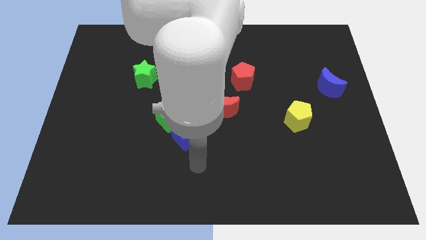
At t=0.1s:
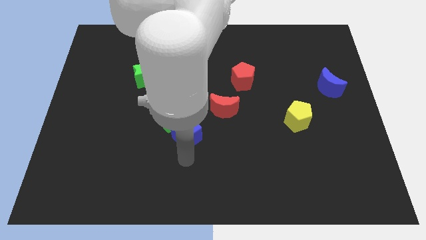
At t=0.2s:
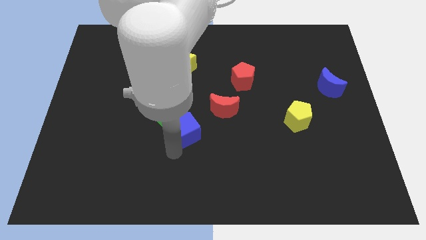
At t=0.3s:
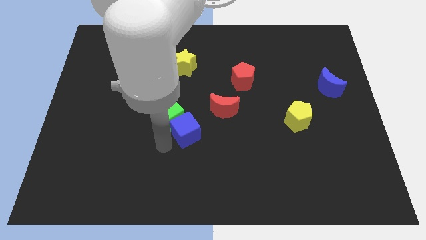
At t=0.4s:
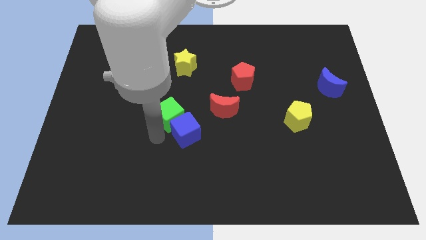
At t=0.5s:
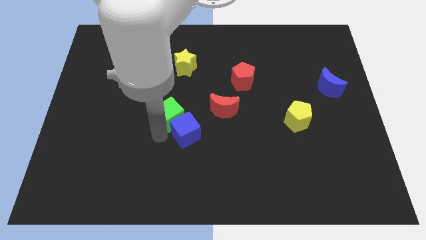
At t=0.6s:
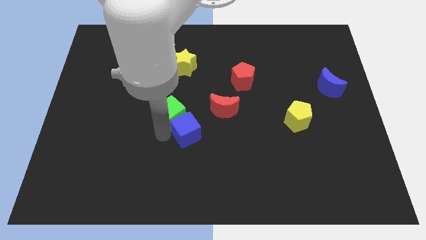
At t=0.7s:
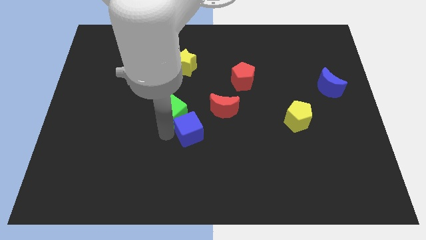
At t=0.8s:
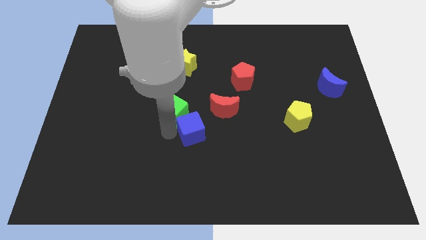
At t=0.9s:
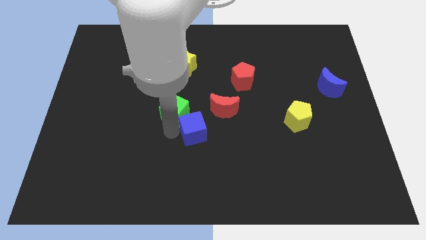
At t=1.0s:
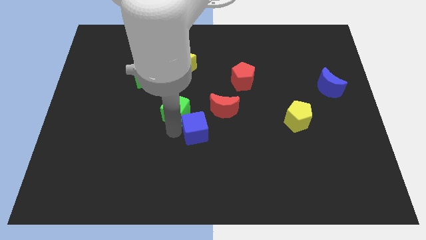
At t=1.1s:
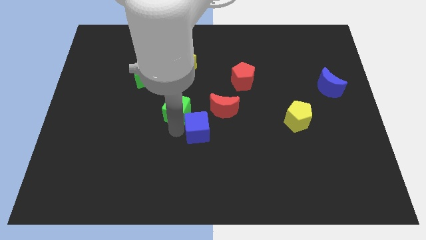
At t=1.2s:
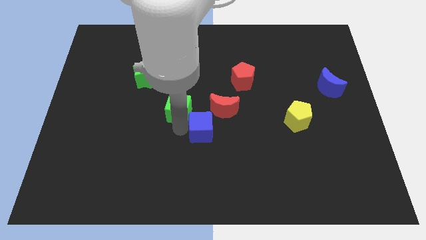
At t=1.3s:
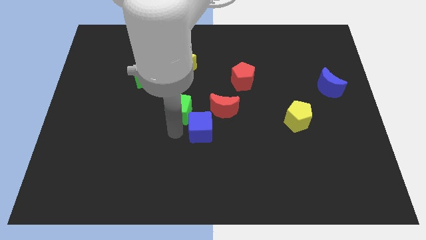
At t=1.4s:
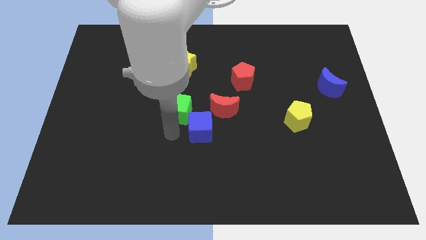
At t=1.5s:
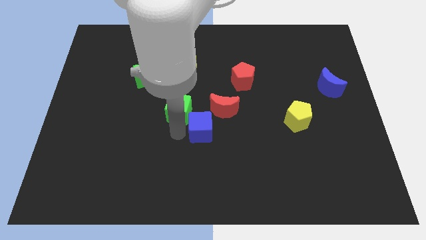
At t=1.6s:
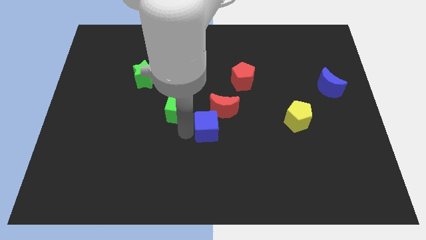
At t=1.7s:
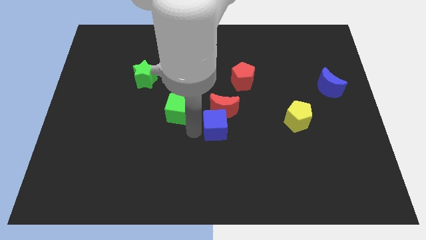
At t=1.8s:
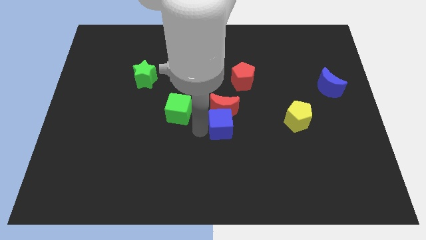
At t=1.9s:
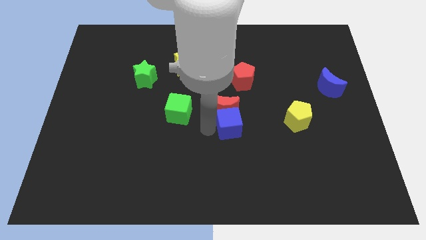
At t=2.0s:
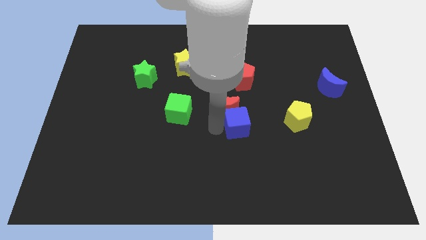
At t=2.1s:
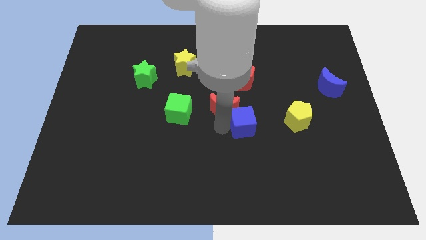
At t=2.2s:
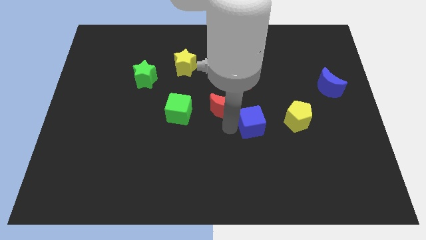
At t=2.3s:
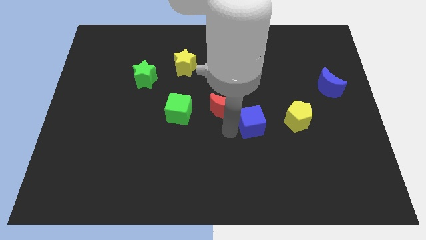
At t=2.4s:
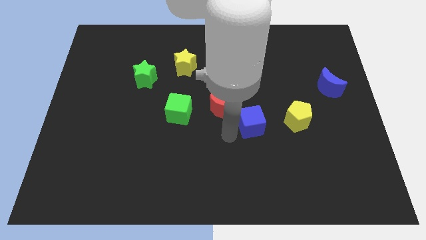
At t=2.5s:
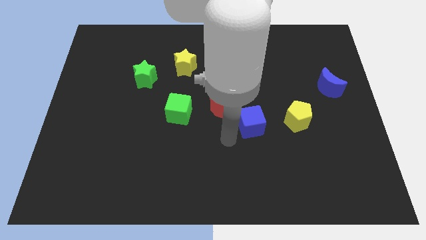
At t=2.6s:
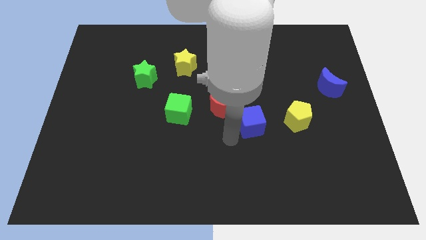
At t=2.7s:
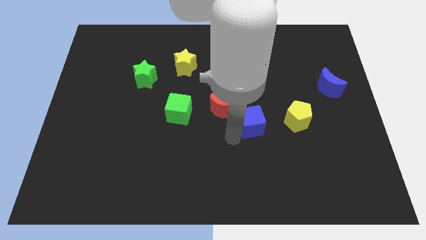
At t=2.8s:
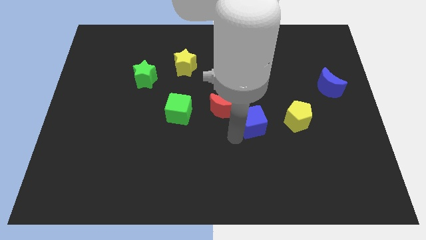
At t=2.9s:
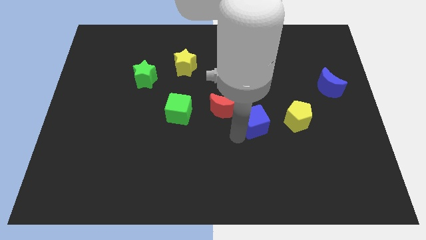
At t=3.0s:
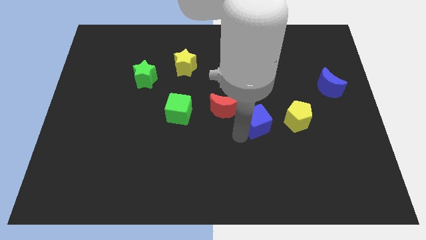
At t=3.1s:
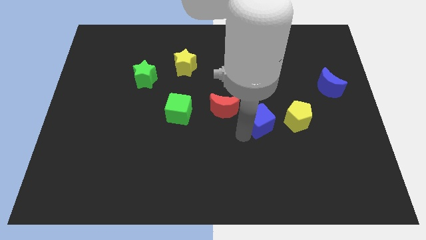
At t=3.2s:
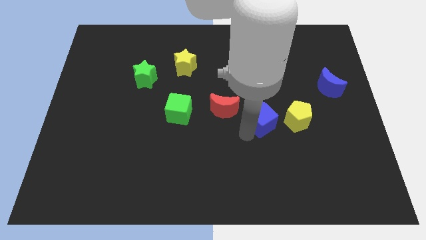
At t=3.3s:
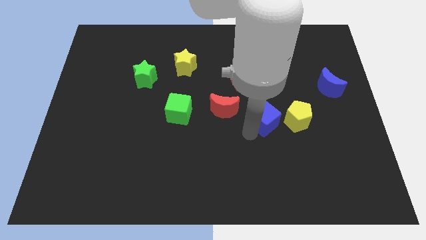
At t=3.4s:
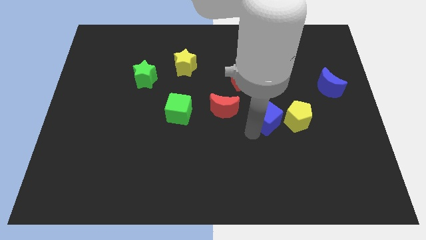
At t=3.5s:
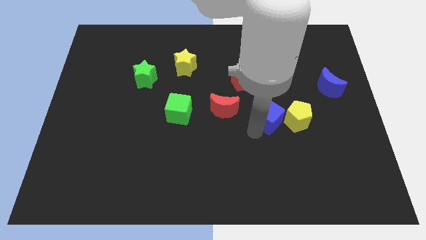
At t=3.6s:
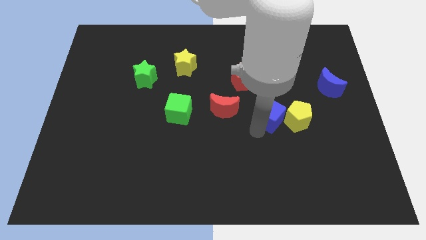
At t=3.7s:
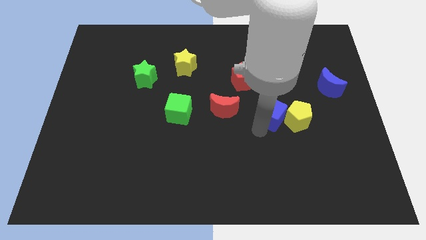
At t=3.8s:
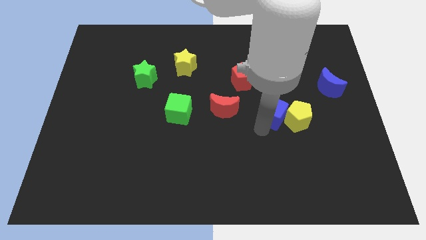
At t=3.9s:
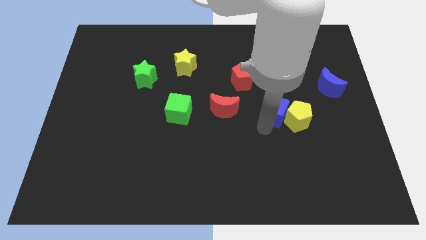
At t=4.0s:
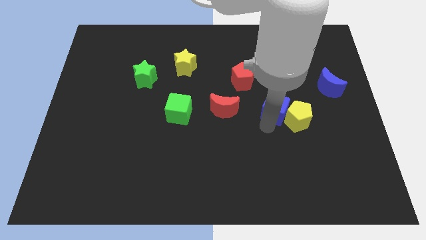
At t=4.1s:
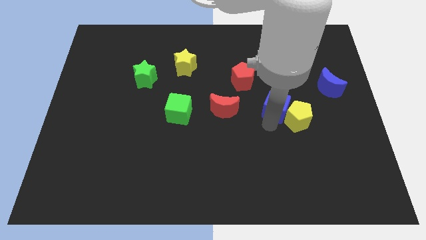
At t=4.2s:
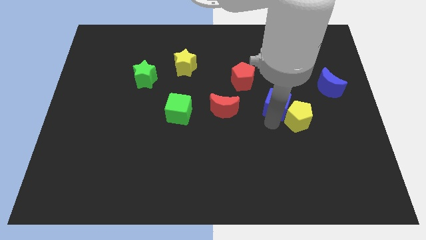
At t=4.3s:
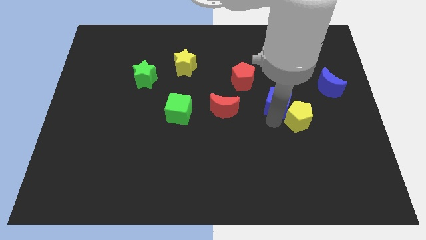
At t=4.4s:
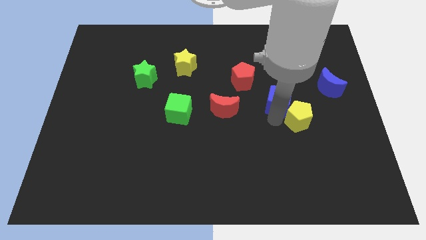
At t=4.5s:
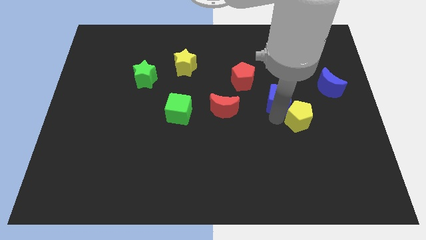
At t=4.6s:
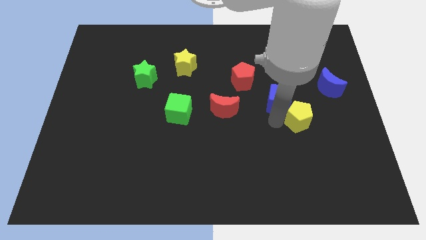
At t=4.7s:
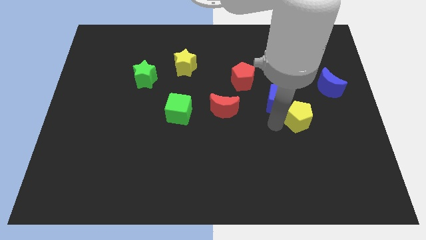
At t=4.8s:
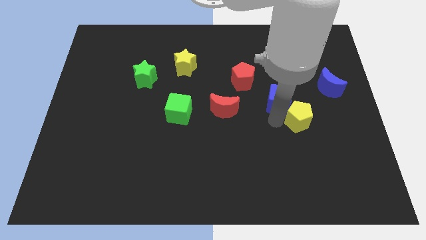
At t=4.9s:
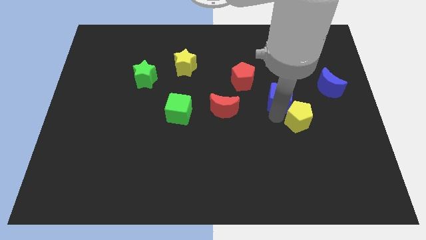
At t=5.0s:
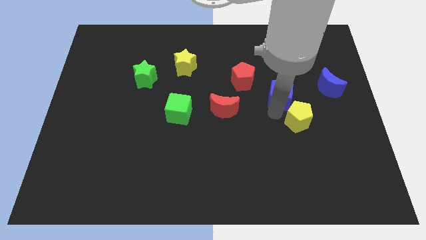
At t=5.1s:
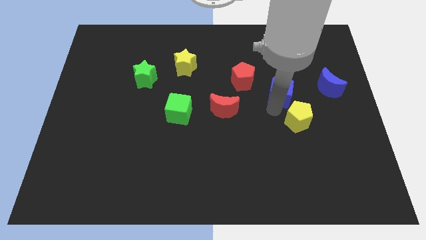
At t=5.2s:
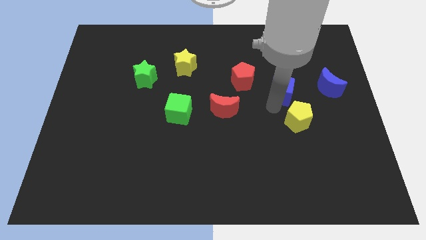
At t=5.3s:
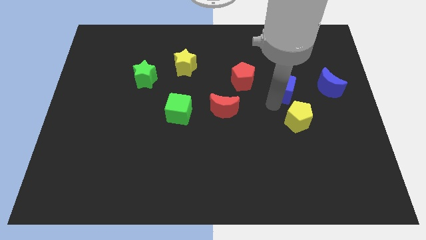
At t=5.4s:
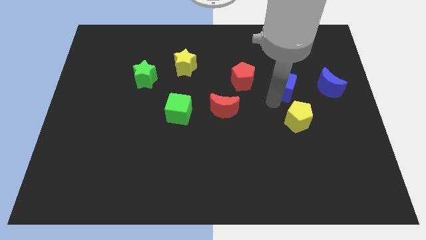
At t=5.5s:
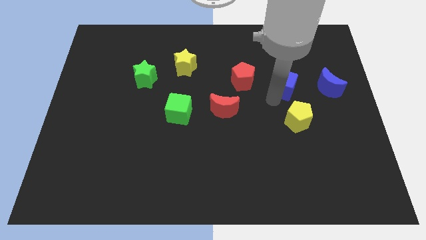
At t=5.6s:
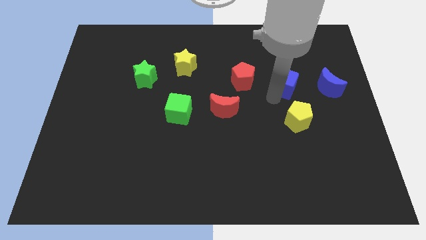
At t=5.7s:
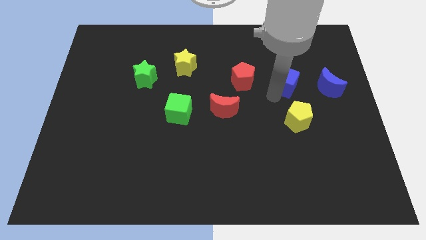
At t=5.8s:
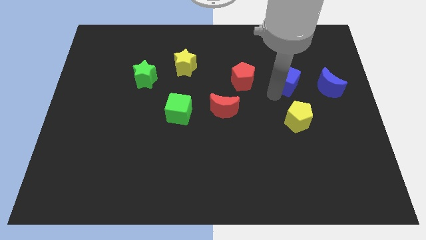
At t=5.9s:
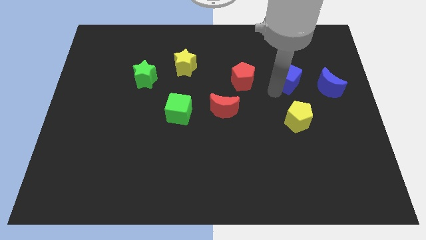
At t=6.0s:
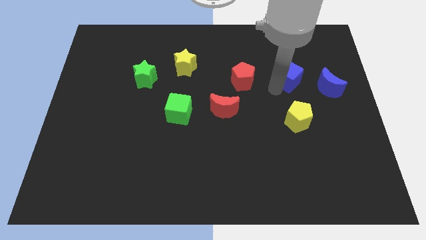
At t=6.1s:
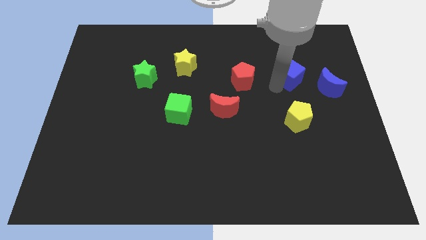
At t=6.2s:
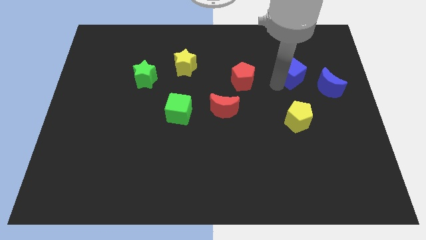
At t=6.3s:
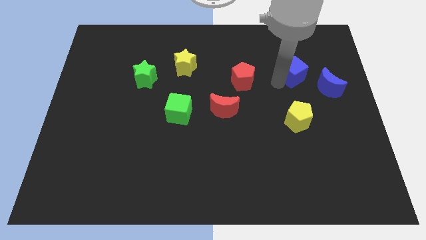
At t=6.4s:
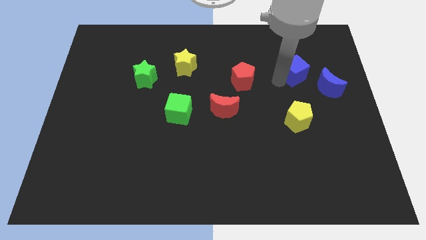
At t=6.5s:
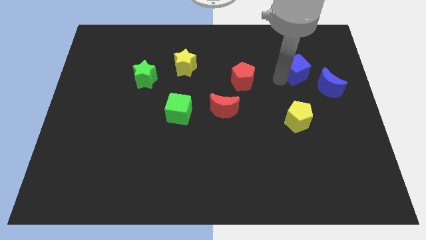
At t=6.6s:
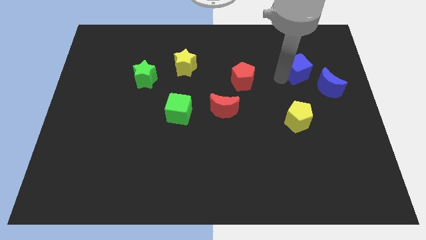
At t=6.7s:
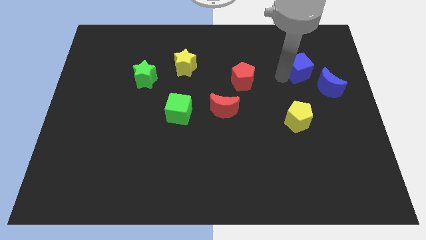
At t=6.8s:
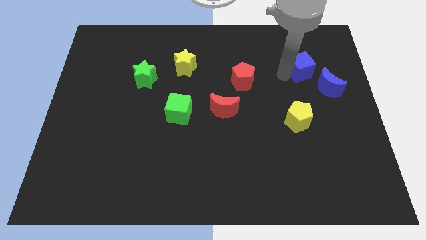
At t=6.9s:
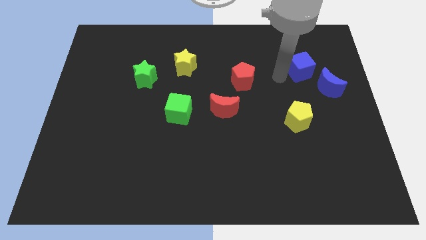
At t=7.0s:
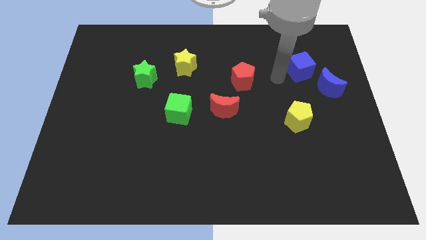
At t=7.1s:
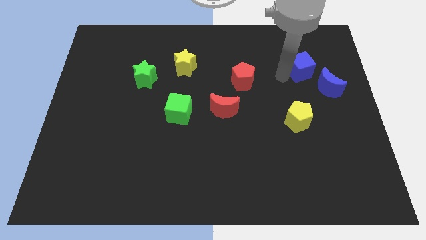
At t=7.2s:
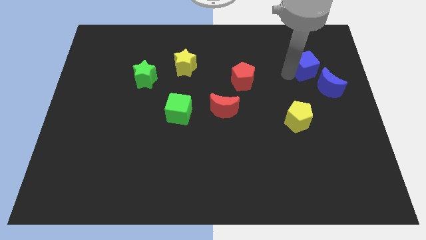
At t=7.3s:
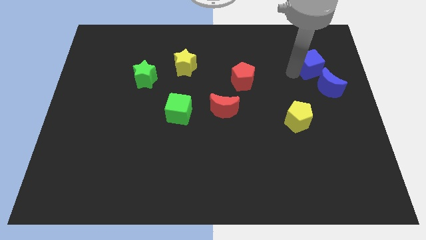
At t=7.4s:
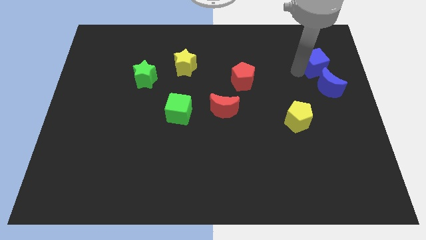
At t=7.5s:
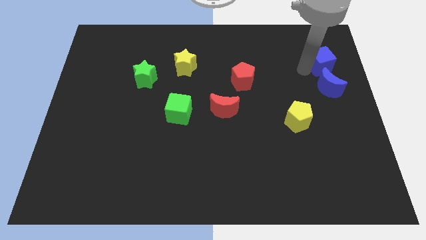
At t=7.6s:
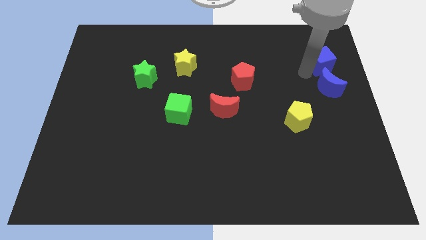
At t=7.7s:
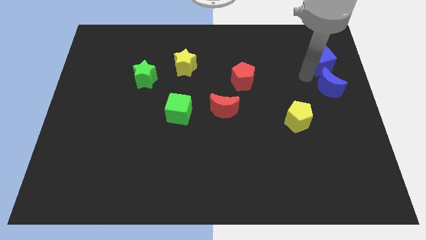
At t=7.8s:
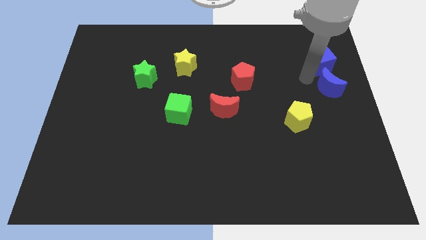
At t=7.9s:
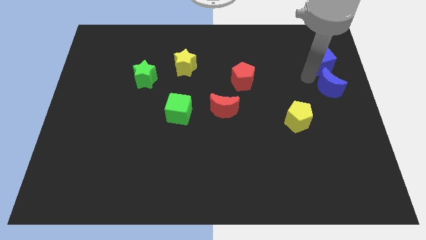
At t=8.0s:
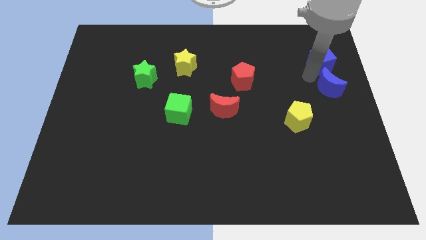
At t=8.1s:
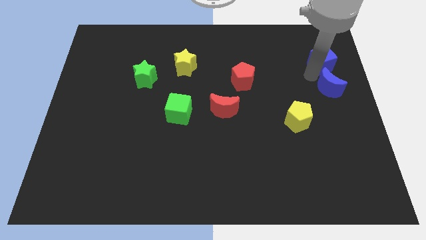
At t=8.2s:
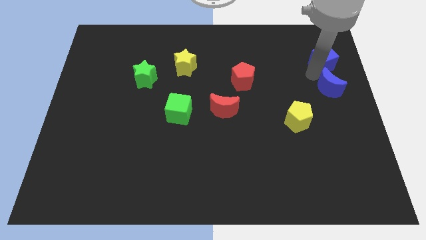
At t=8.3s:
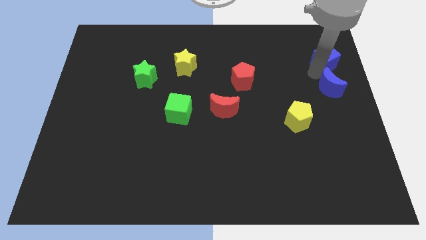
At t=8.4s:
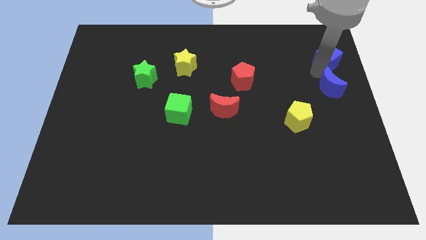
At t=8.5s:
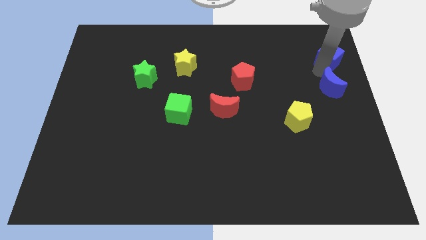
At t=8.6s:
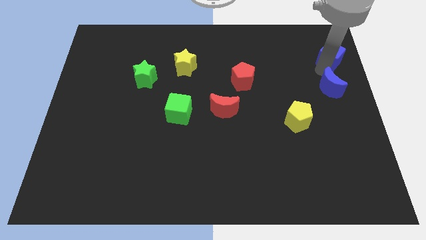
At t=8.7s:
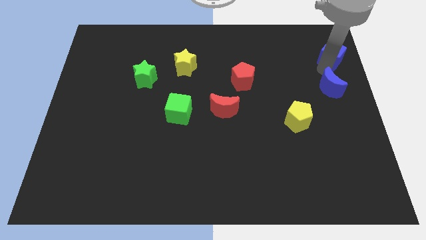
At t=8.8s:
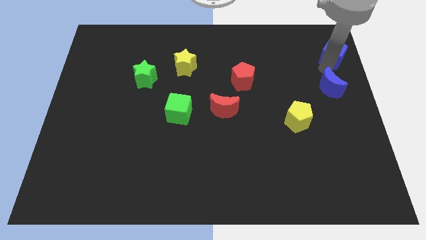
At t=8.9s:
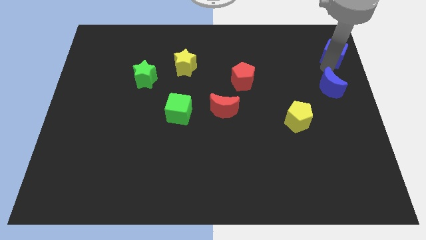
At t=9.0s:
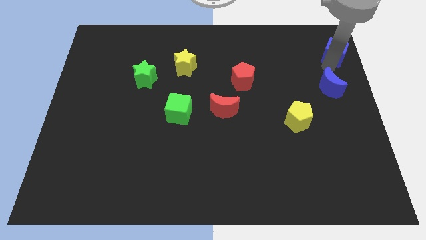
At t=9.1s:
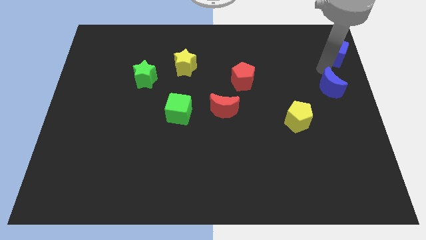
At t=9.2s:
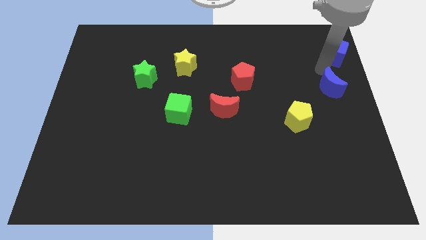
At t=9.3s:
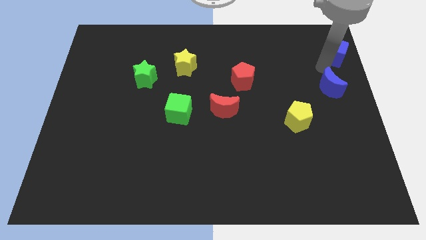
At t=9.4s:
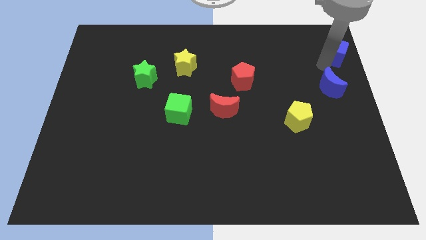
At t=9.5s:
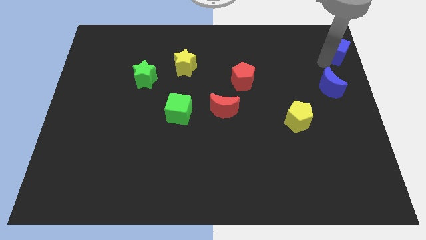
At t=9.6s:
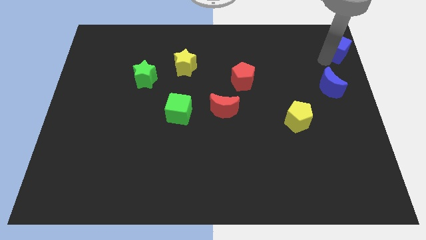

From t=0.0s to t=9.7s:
push the blue cube to the top right of the board
